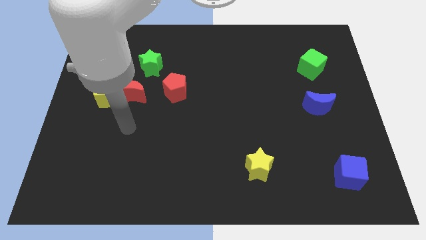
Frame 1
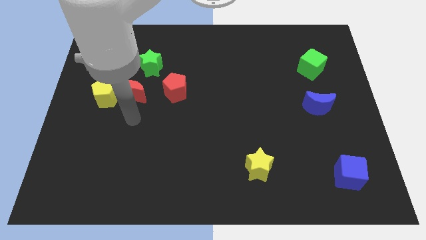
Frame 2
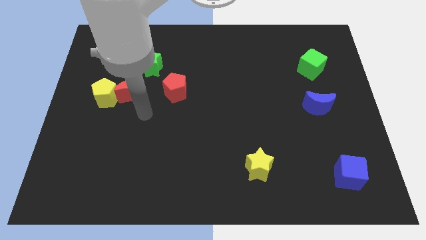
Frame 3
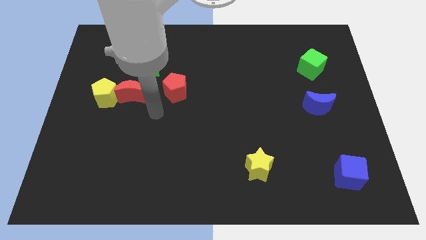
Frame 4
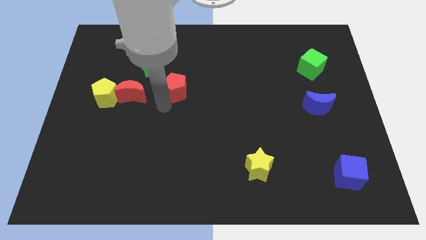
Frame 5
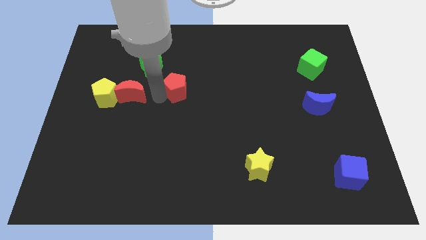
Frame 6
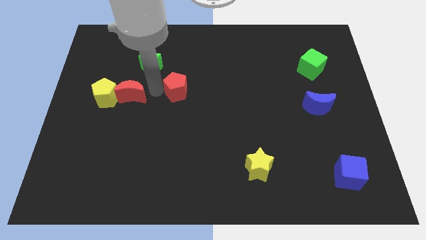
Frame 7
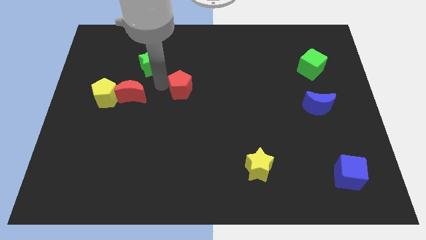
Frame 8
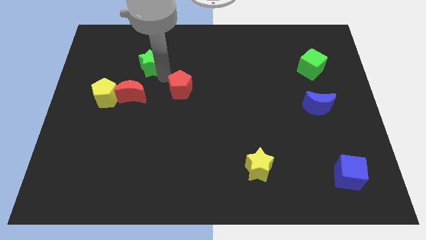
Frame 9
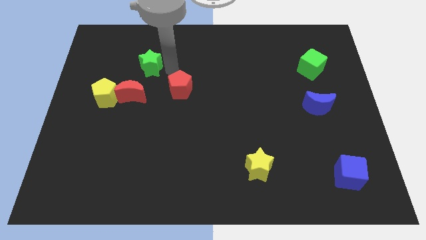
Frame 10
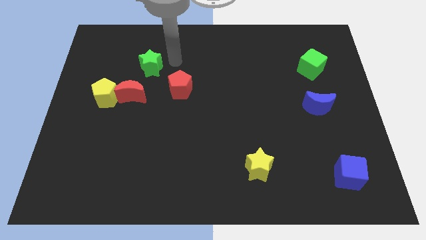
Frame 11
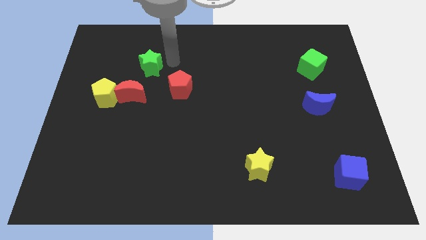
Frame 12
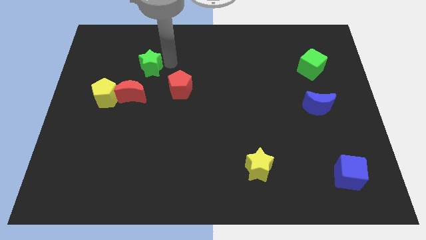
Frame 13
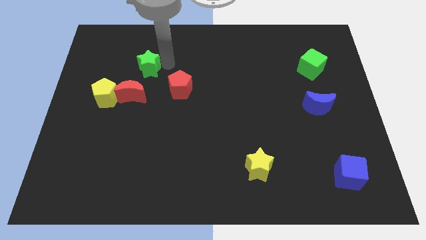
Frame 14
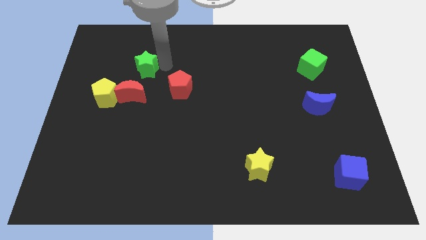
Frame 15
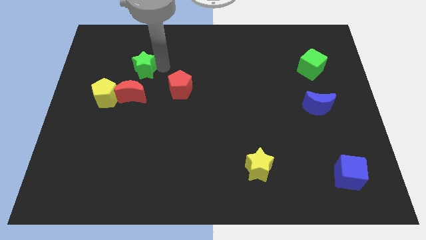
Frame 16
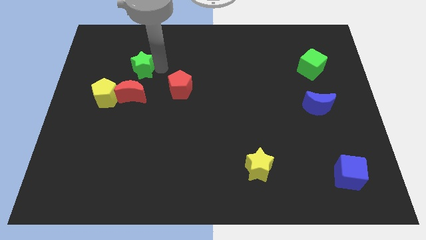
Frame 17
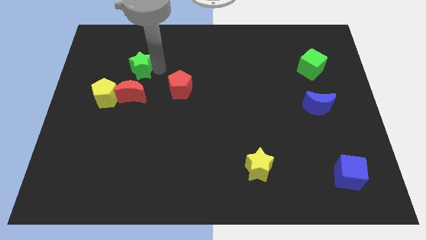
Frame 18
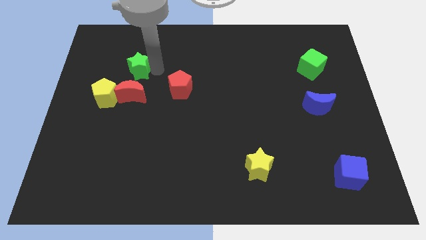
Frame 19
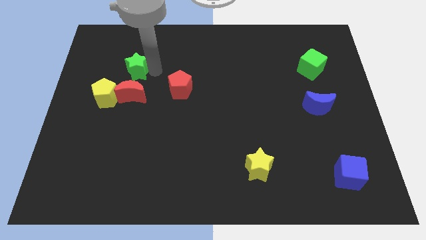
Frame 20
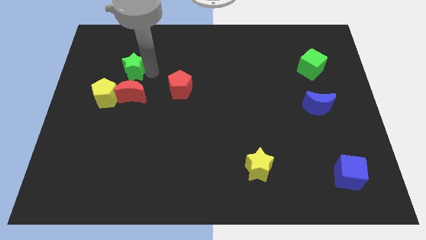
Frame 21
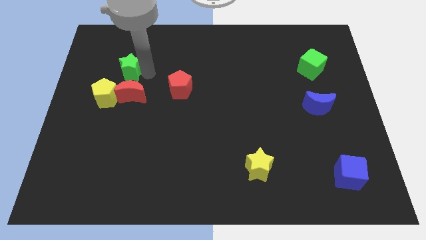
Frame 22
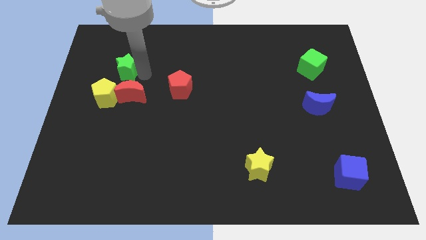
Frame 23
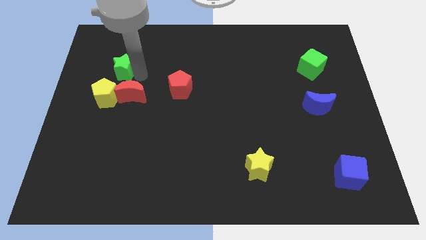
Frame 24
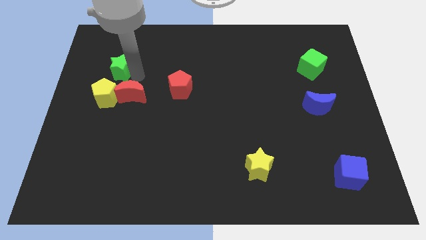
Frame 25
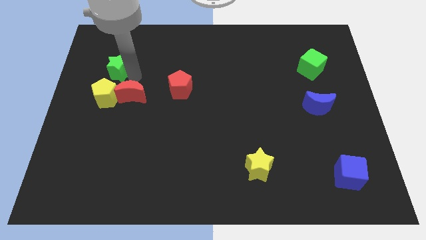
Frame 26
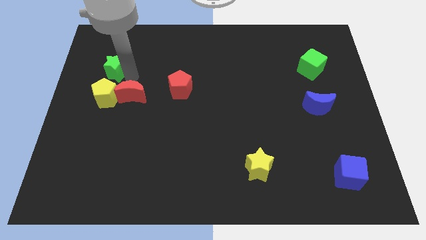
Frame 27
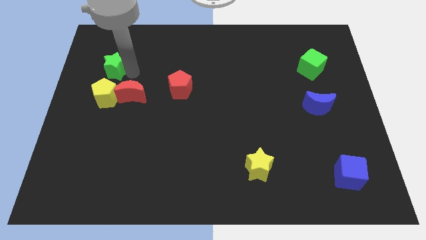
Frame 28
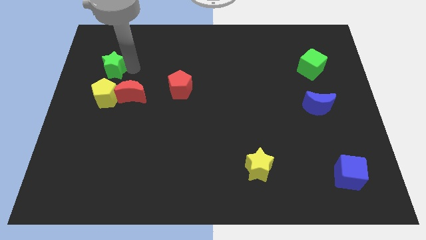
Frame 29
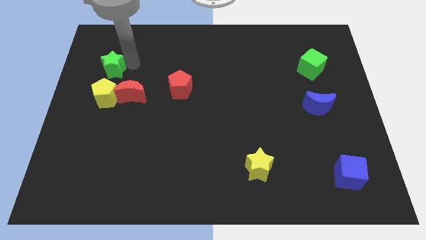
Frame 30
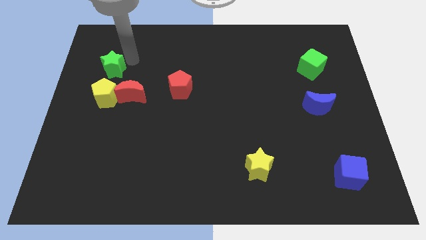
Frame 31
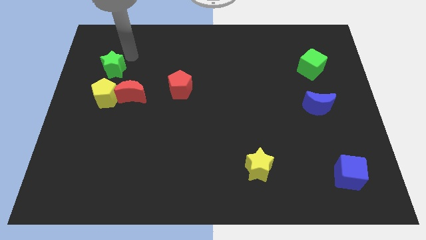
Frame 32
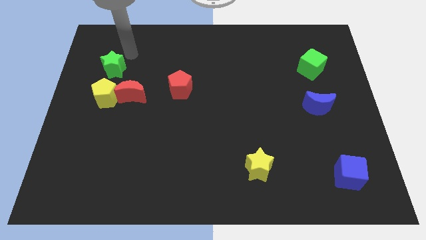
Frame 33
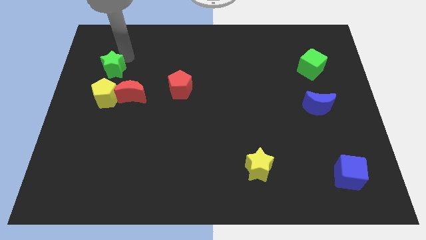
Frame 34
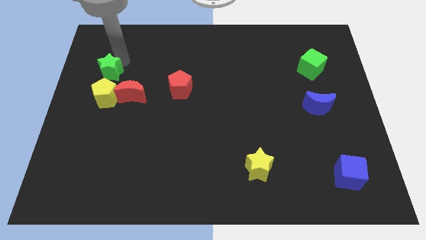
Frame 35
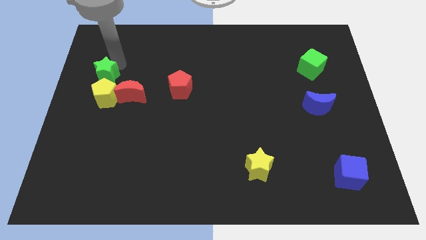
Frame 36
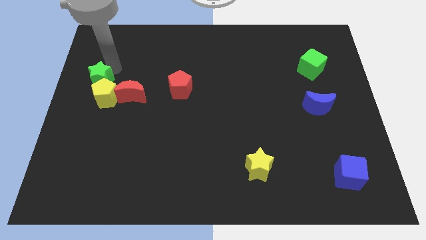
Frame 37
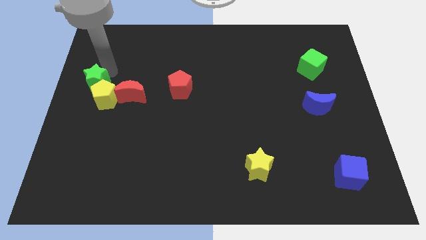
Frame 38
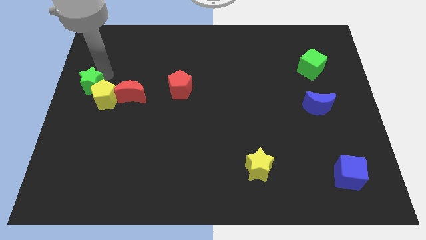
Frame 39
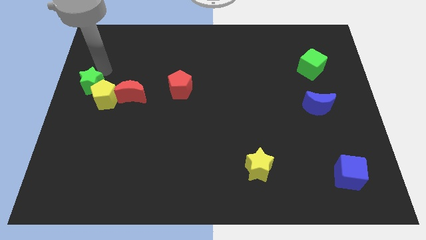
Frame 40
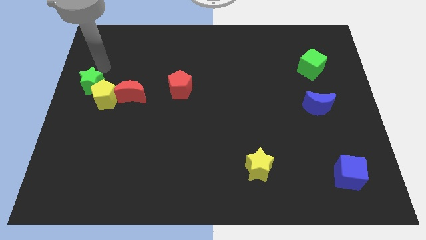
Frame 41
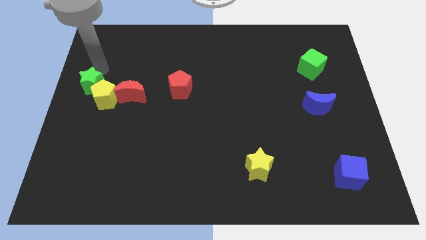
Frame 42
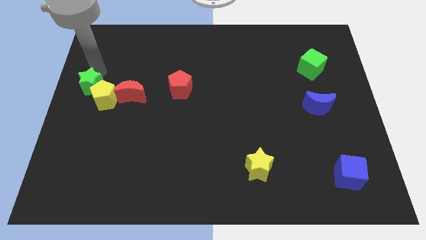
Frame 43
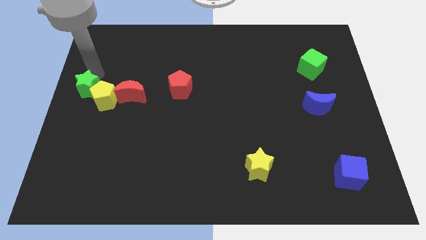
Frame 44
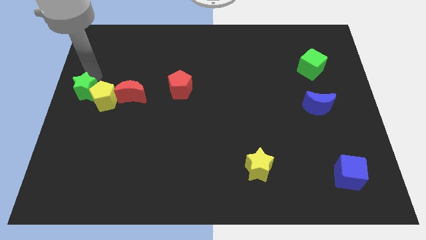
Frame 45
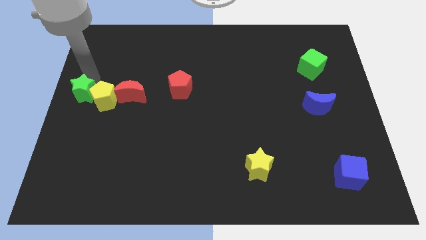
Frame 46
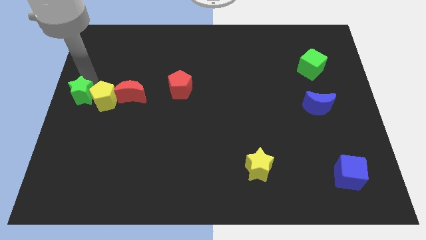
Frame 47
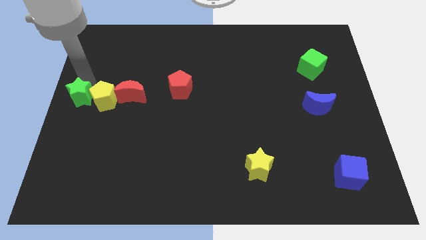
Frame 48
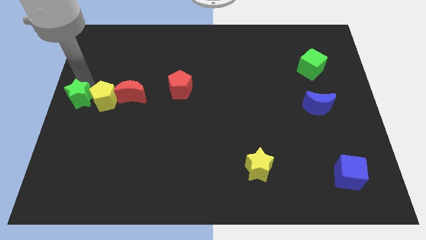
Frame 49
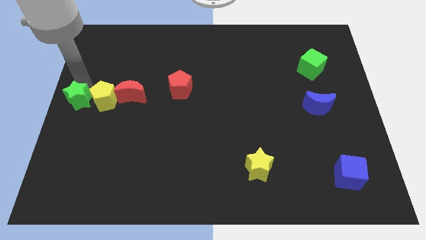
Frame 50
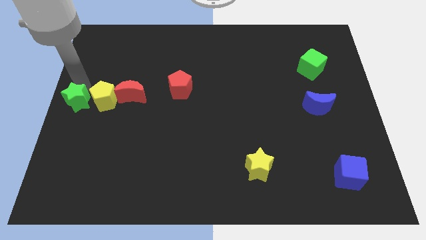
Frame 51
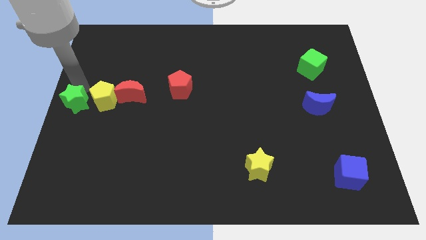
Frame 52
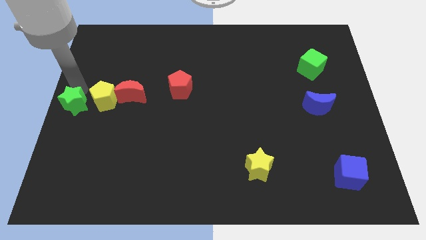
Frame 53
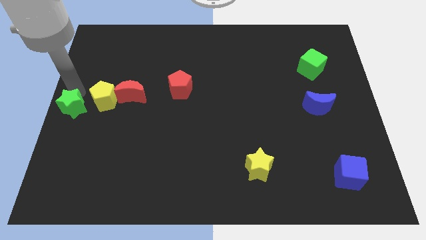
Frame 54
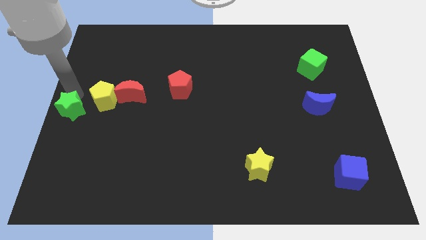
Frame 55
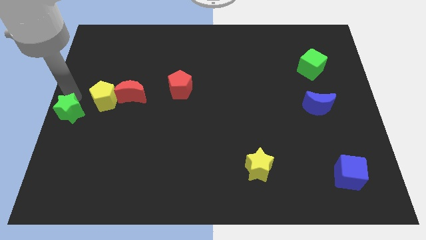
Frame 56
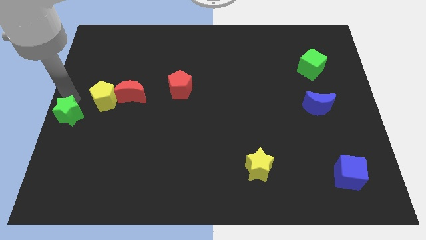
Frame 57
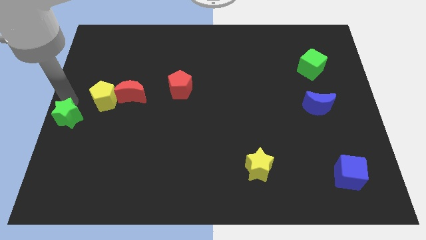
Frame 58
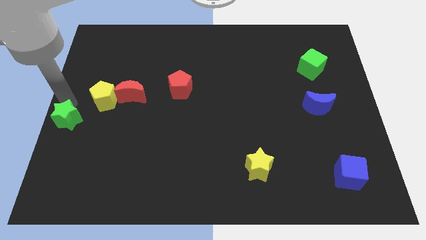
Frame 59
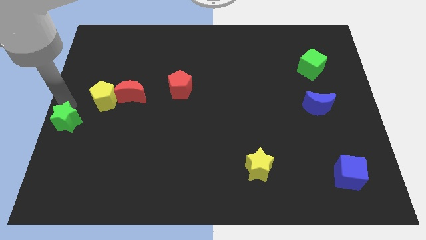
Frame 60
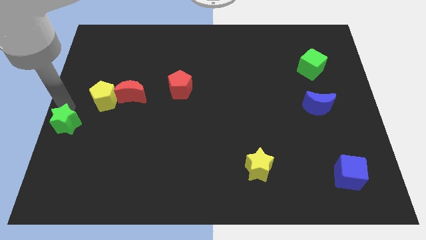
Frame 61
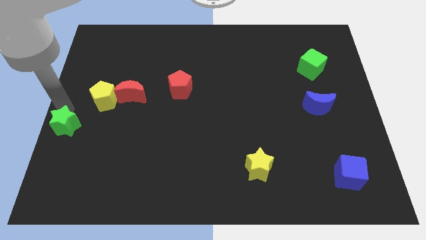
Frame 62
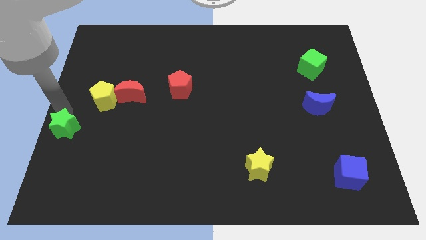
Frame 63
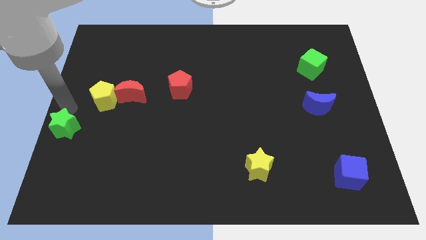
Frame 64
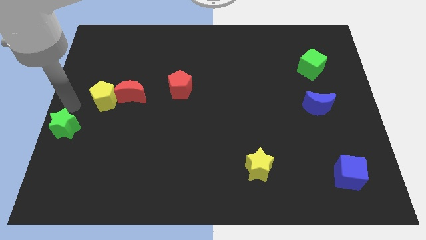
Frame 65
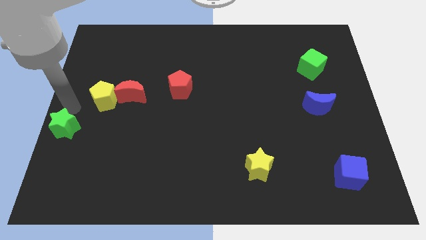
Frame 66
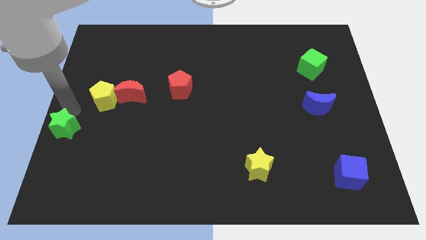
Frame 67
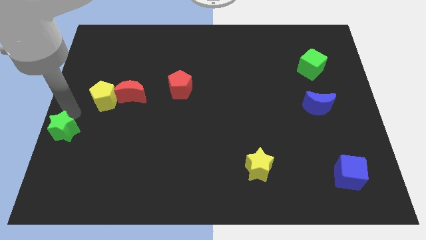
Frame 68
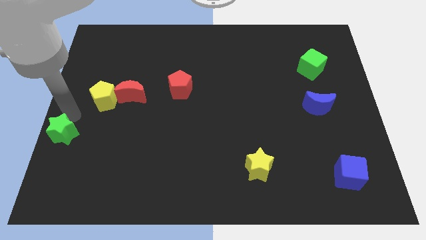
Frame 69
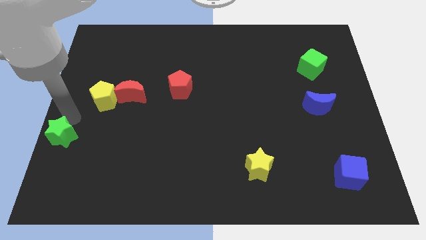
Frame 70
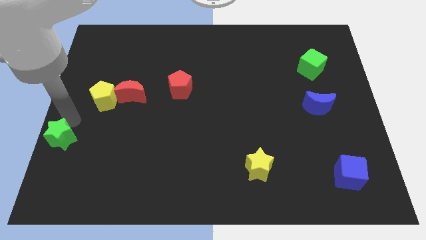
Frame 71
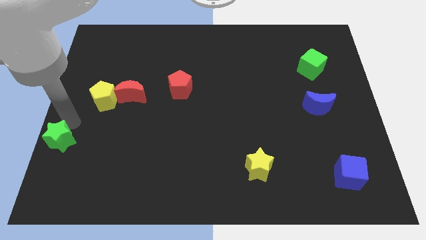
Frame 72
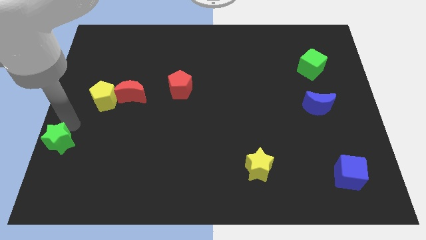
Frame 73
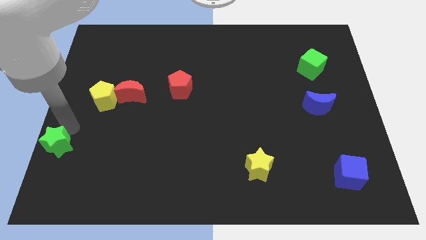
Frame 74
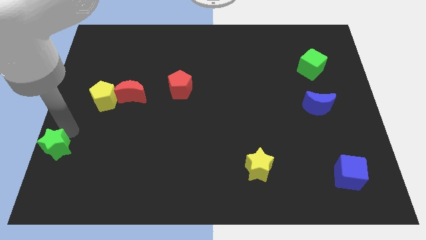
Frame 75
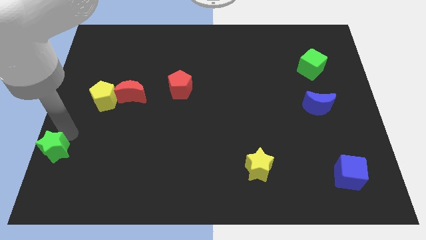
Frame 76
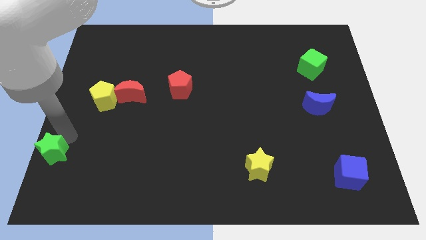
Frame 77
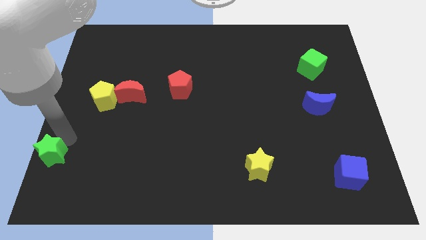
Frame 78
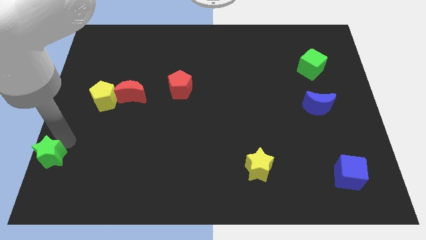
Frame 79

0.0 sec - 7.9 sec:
put the green star to the bottom left of the board
